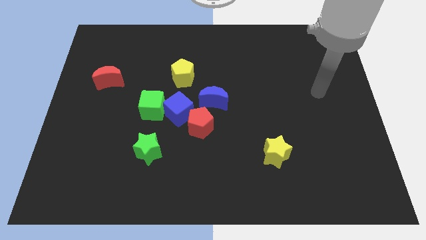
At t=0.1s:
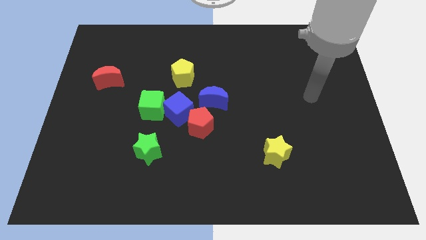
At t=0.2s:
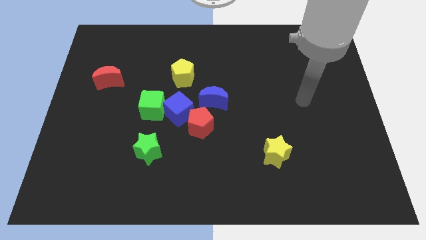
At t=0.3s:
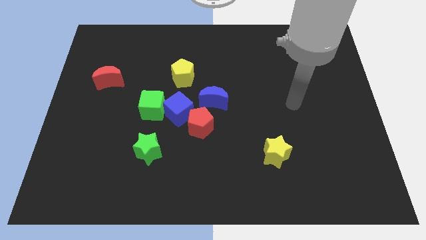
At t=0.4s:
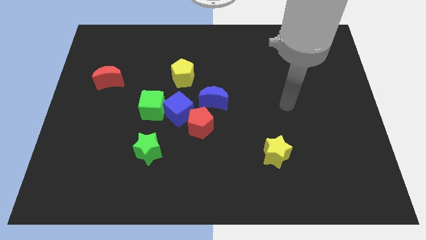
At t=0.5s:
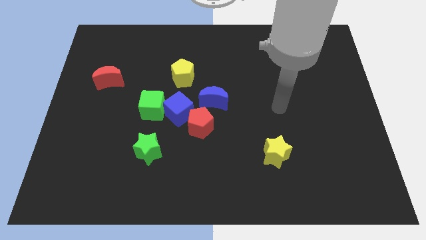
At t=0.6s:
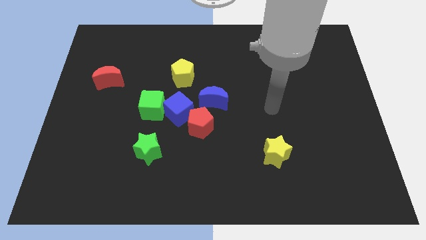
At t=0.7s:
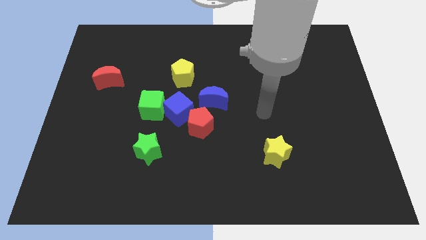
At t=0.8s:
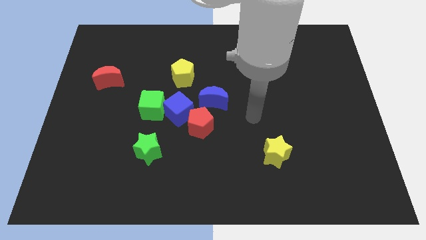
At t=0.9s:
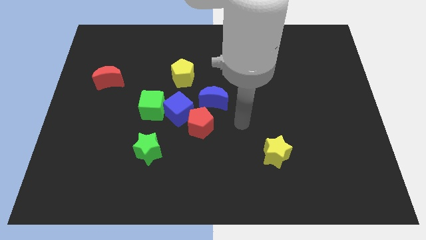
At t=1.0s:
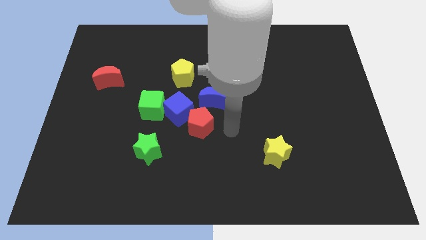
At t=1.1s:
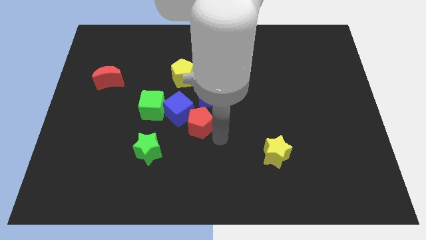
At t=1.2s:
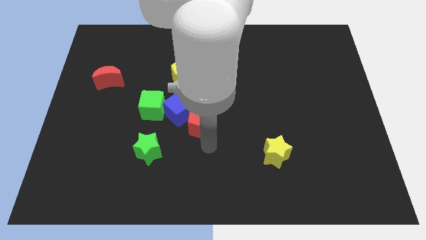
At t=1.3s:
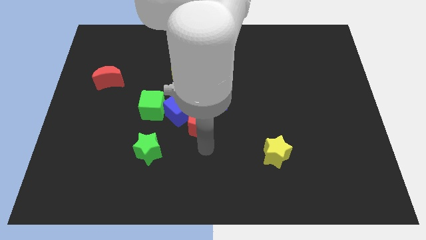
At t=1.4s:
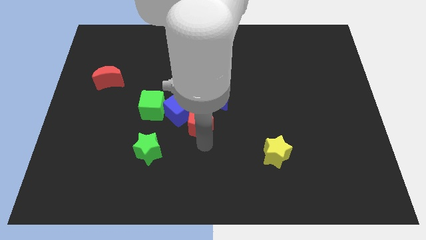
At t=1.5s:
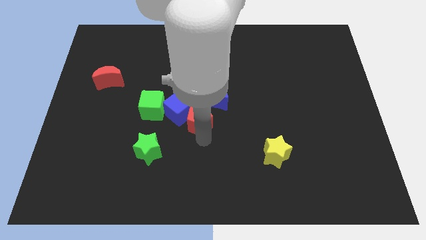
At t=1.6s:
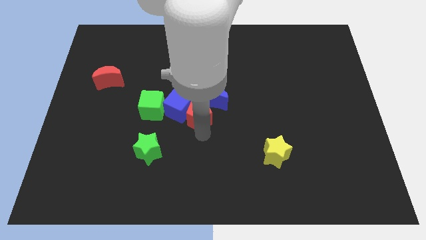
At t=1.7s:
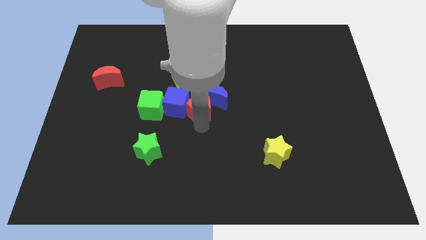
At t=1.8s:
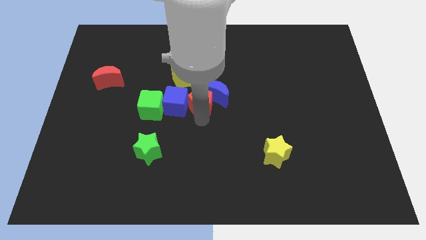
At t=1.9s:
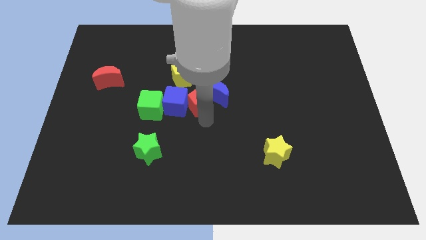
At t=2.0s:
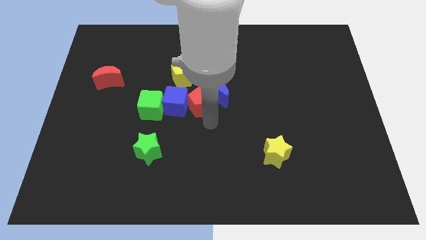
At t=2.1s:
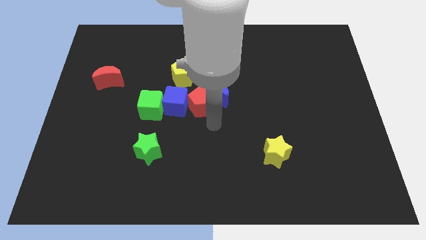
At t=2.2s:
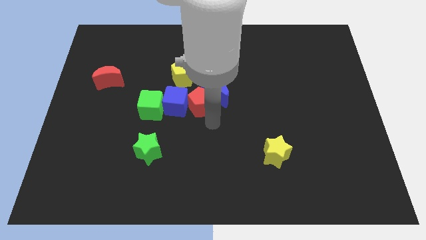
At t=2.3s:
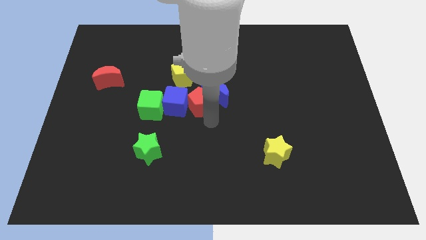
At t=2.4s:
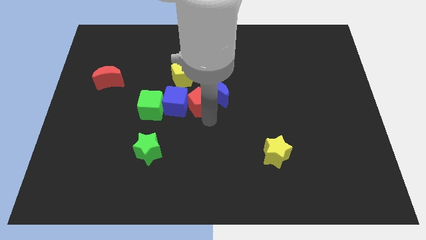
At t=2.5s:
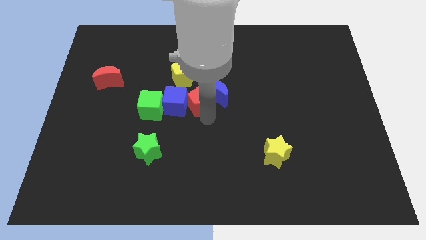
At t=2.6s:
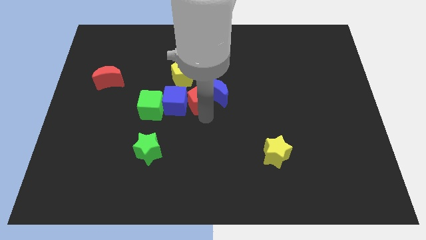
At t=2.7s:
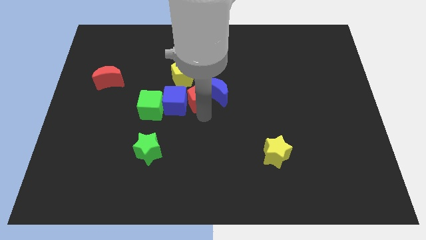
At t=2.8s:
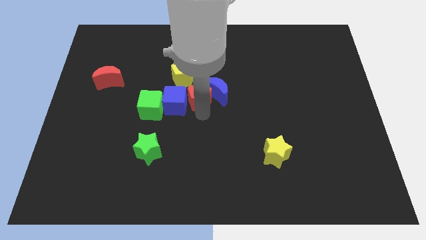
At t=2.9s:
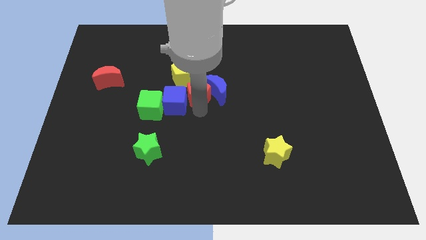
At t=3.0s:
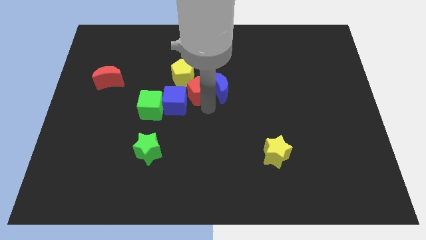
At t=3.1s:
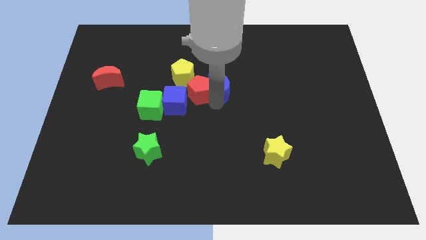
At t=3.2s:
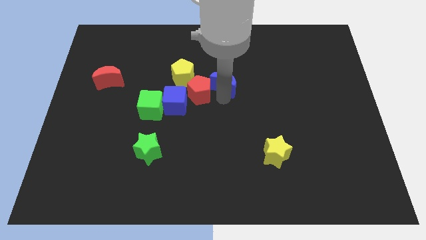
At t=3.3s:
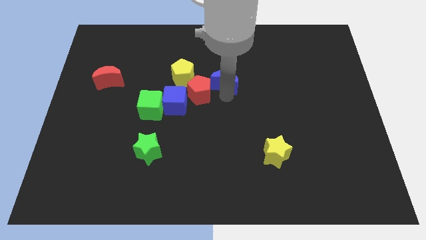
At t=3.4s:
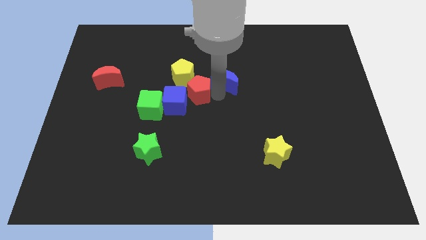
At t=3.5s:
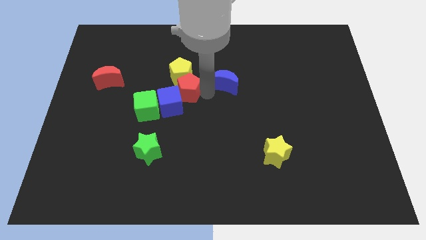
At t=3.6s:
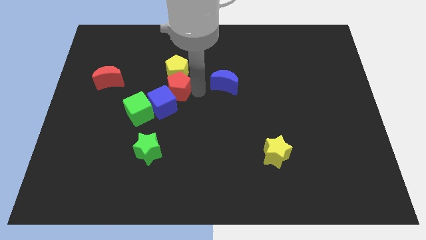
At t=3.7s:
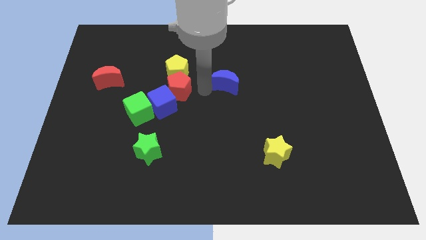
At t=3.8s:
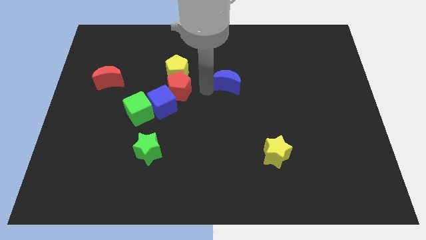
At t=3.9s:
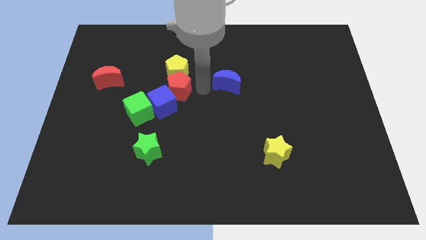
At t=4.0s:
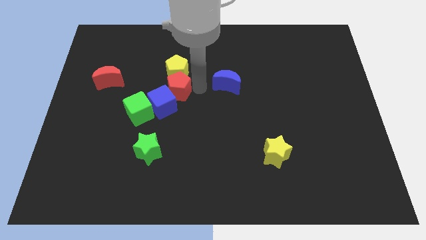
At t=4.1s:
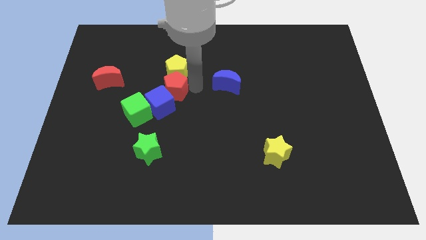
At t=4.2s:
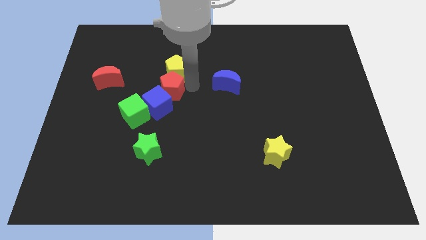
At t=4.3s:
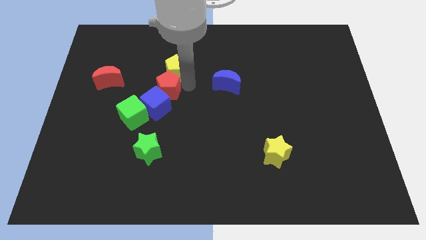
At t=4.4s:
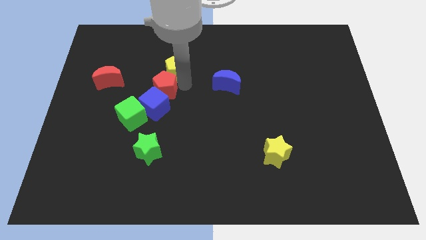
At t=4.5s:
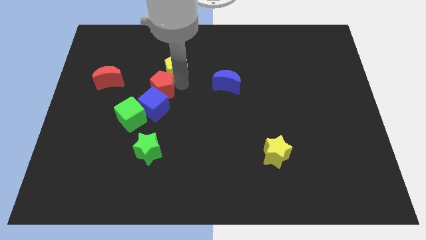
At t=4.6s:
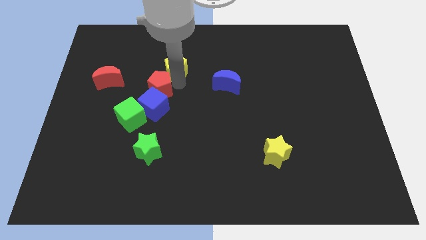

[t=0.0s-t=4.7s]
put the red pentagon diagonally up and to the left of the blue cube

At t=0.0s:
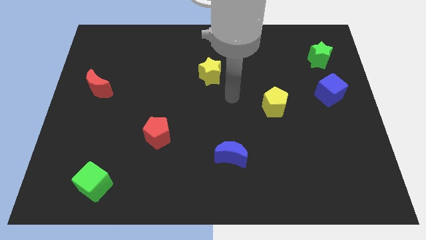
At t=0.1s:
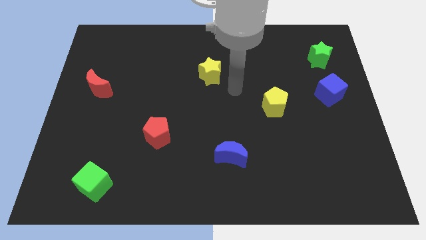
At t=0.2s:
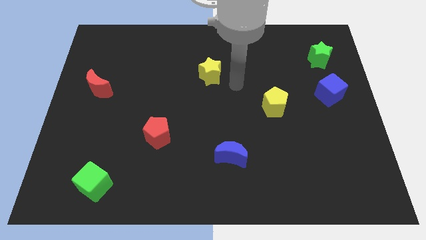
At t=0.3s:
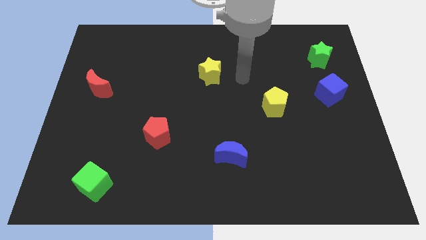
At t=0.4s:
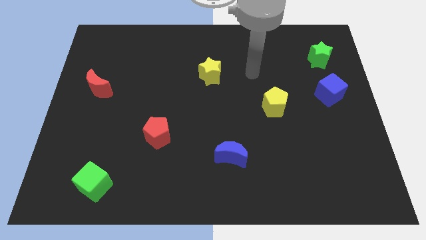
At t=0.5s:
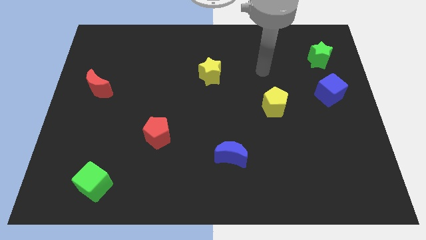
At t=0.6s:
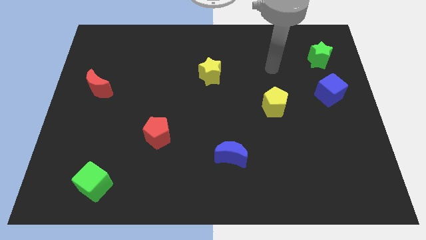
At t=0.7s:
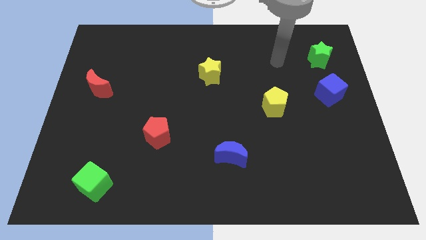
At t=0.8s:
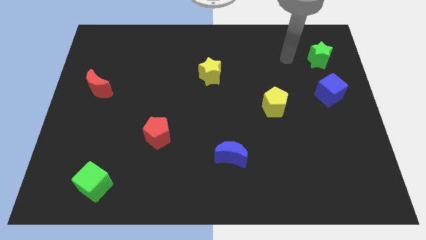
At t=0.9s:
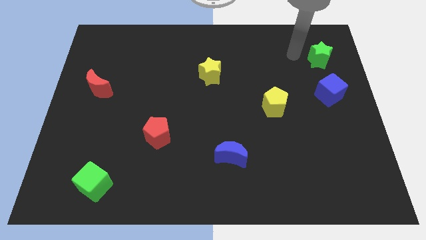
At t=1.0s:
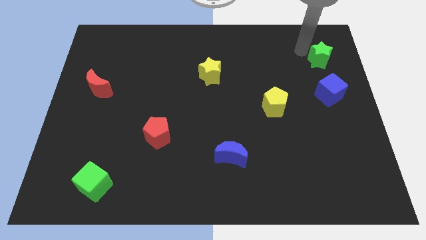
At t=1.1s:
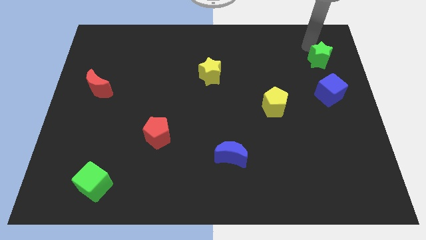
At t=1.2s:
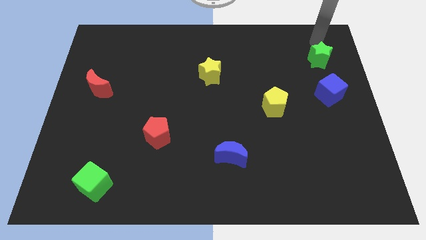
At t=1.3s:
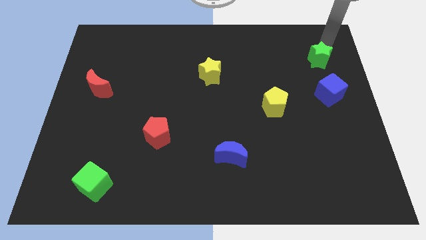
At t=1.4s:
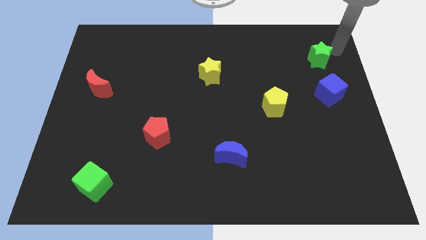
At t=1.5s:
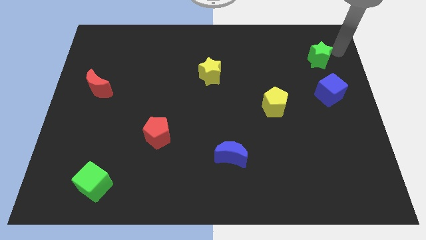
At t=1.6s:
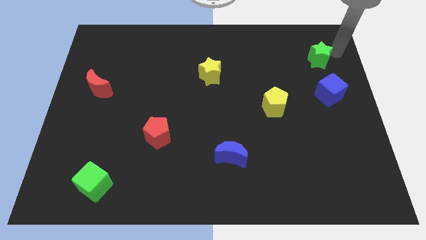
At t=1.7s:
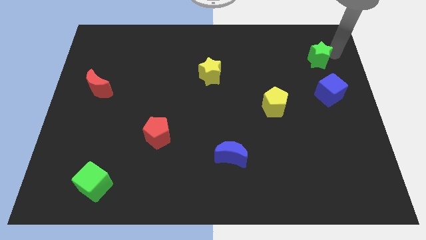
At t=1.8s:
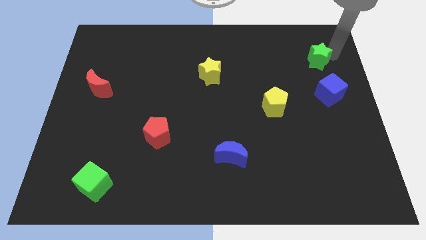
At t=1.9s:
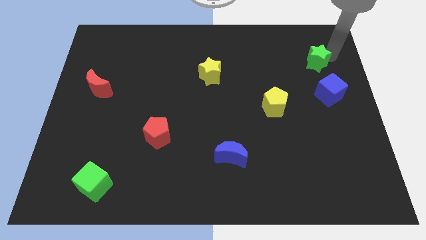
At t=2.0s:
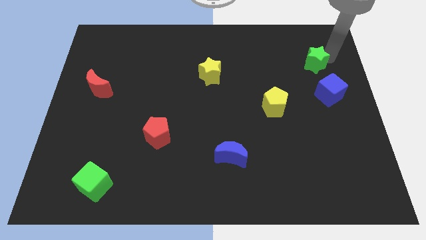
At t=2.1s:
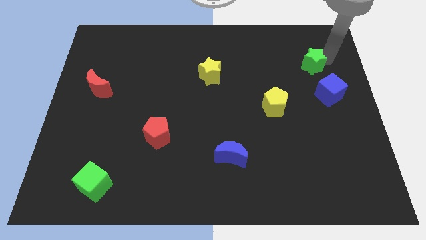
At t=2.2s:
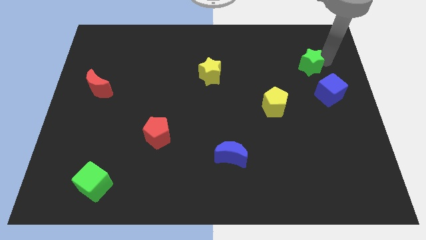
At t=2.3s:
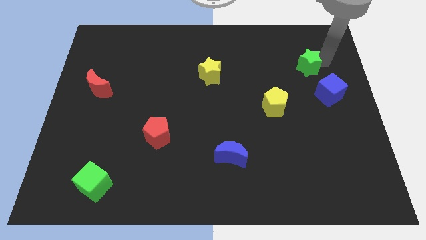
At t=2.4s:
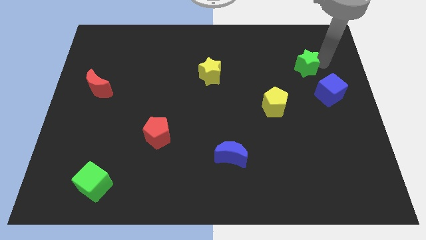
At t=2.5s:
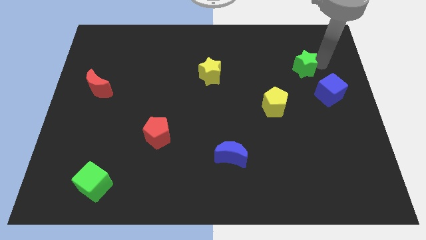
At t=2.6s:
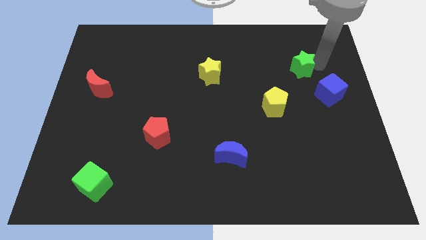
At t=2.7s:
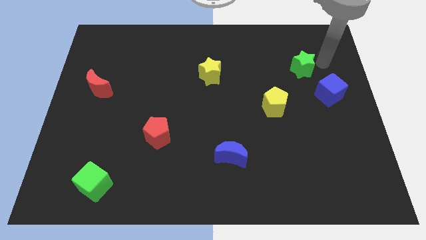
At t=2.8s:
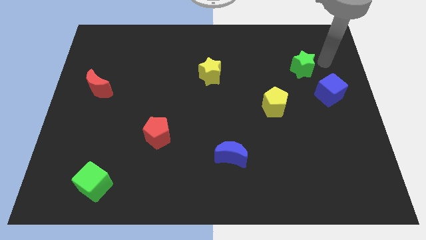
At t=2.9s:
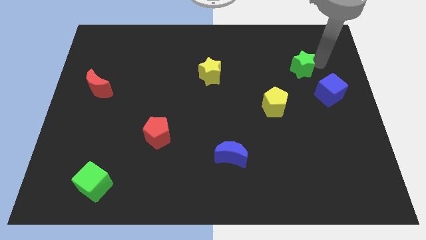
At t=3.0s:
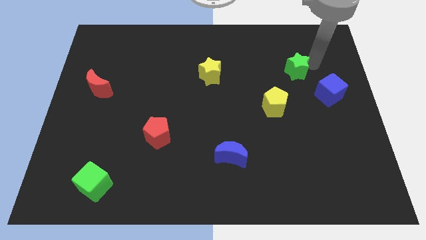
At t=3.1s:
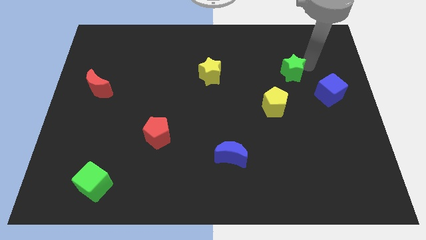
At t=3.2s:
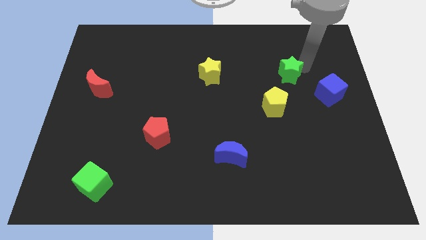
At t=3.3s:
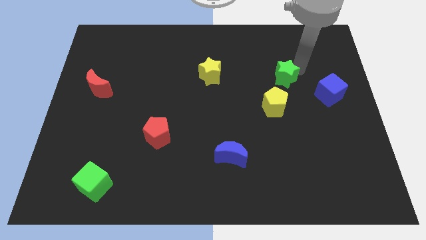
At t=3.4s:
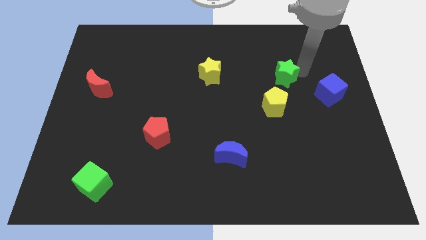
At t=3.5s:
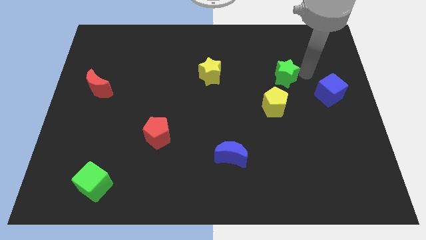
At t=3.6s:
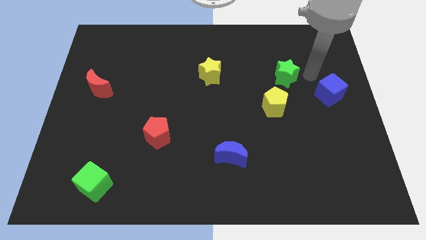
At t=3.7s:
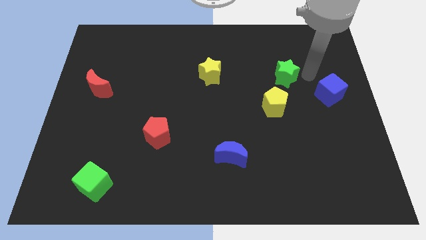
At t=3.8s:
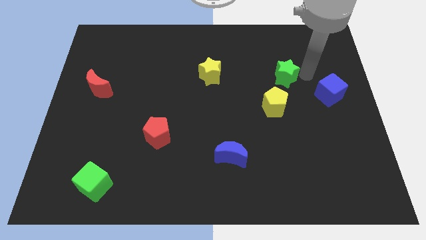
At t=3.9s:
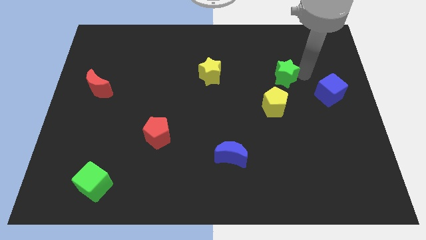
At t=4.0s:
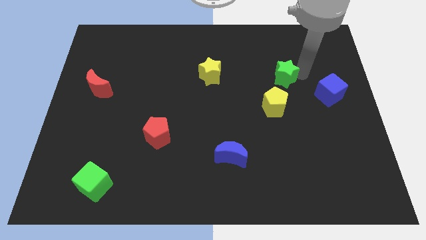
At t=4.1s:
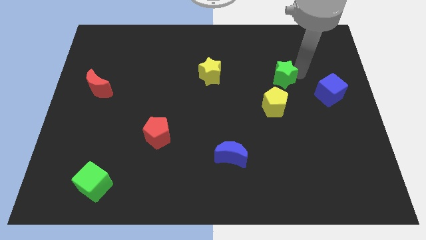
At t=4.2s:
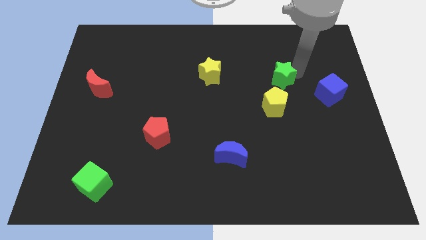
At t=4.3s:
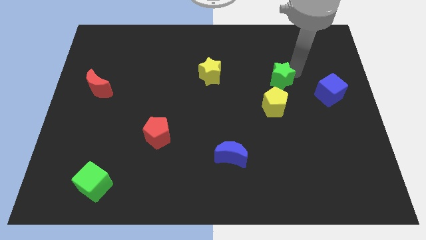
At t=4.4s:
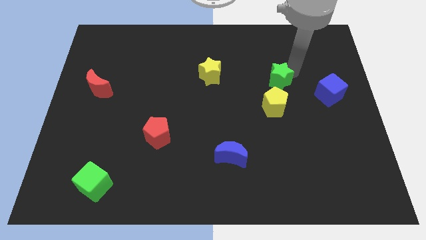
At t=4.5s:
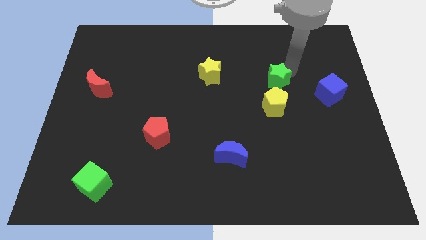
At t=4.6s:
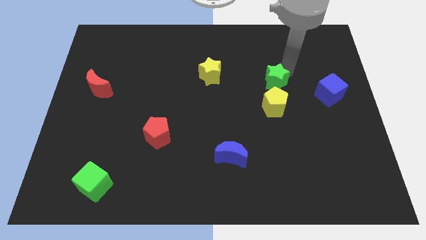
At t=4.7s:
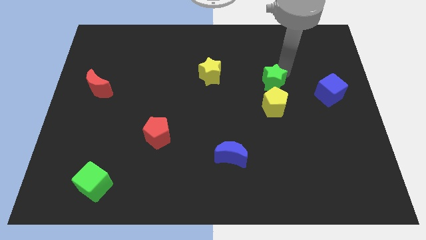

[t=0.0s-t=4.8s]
move the green star just right of the yellow star
